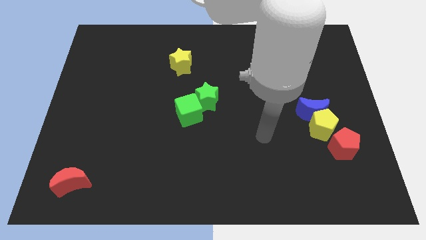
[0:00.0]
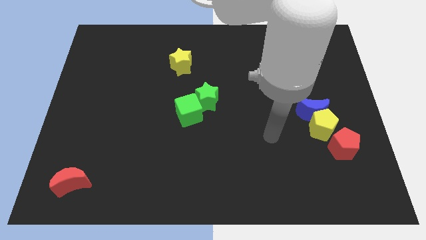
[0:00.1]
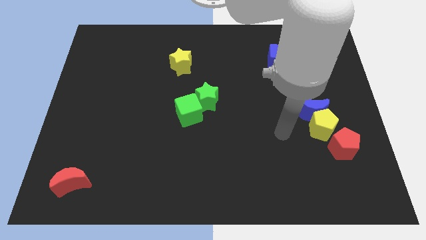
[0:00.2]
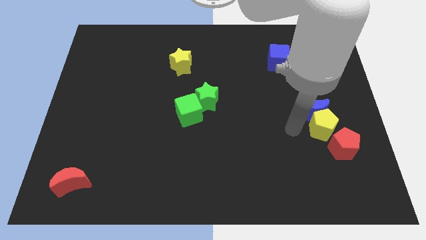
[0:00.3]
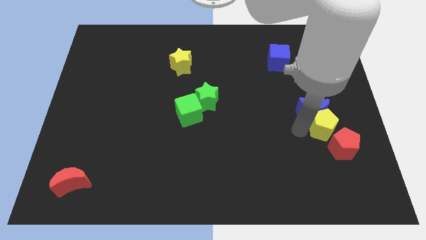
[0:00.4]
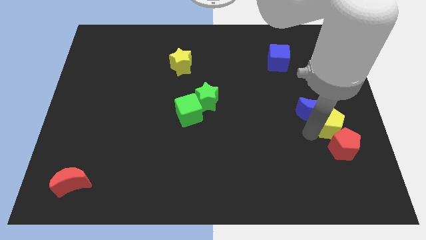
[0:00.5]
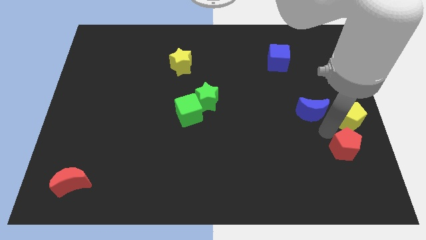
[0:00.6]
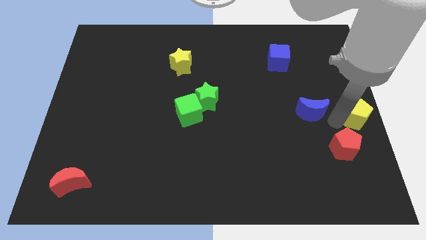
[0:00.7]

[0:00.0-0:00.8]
separate the blue moon from the yellow pentagon

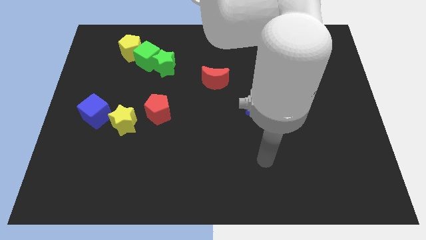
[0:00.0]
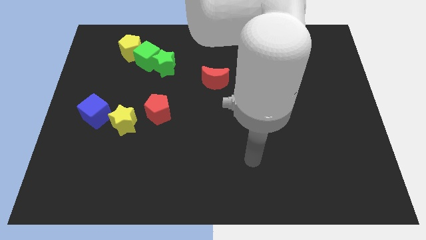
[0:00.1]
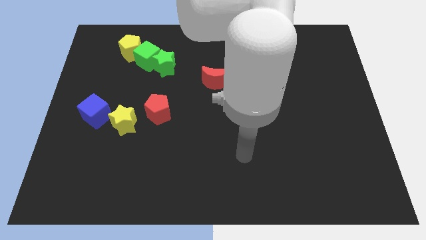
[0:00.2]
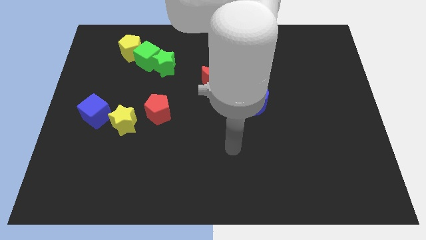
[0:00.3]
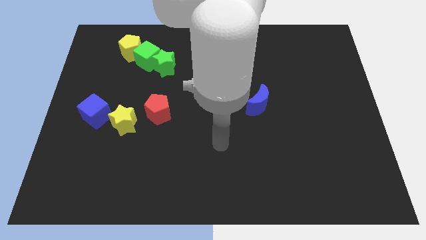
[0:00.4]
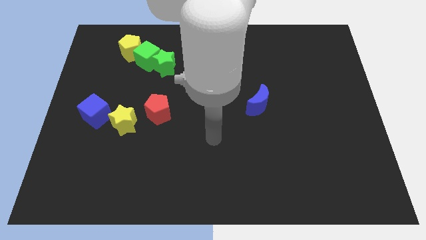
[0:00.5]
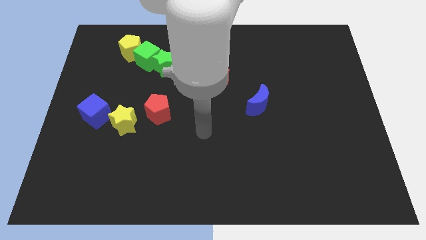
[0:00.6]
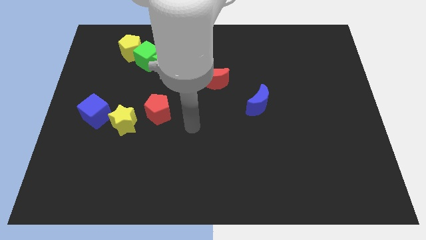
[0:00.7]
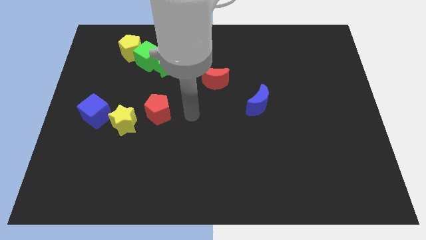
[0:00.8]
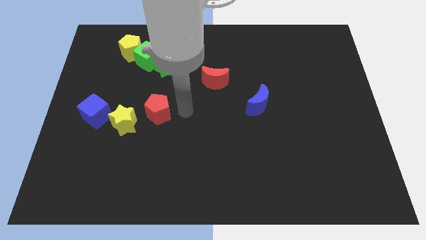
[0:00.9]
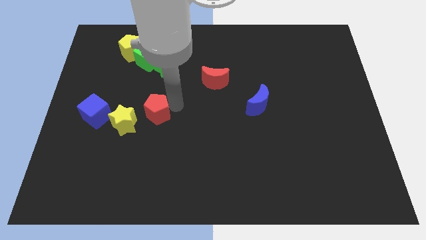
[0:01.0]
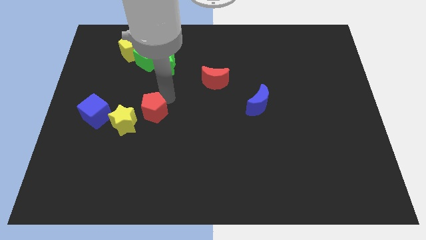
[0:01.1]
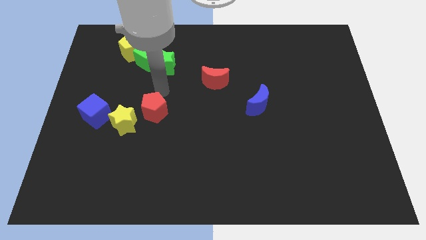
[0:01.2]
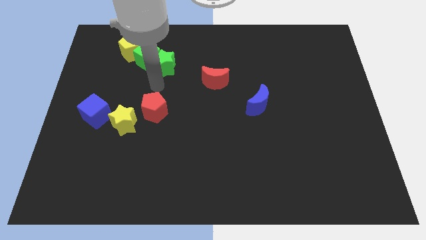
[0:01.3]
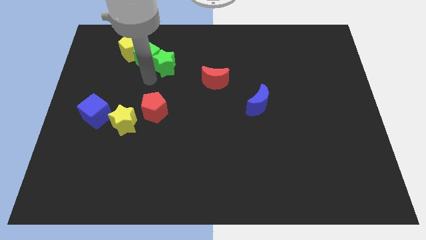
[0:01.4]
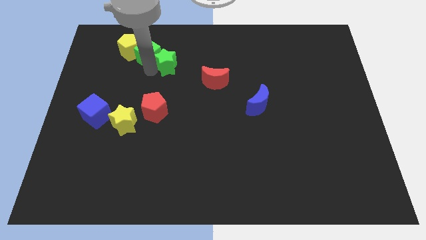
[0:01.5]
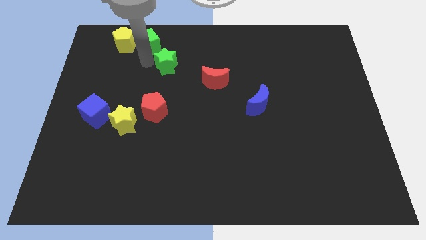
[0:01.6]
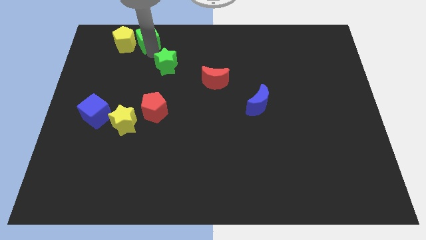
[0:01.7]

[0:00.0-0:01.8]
pull the green star apart from the green cube

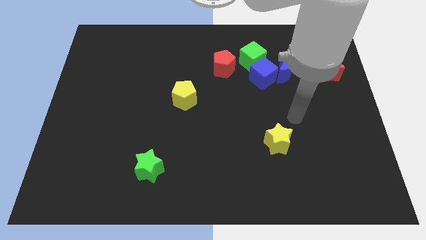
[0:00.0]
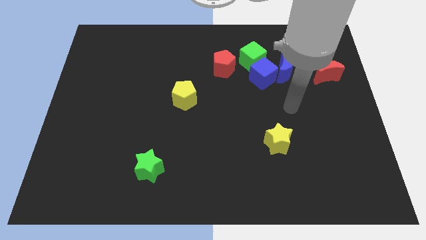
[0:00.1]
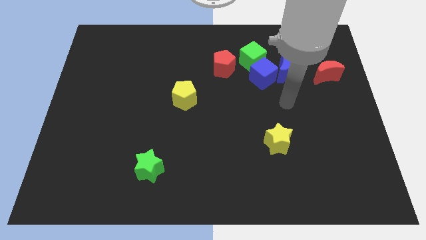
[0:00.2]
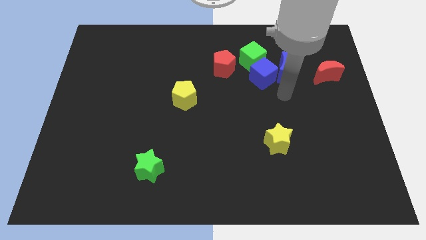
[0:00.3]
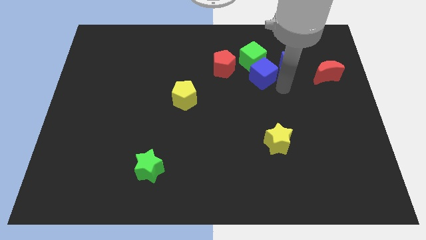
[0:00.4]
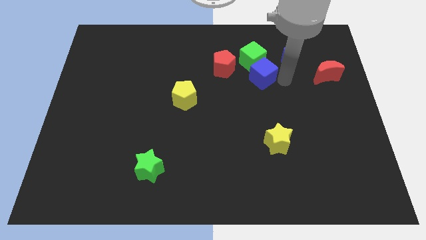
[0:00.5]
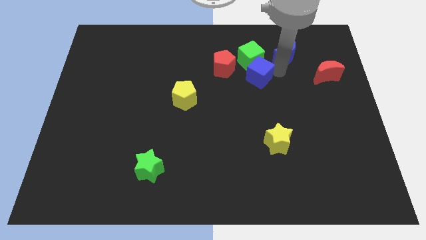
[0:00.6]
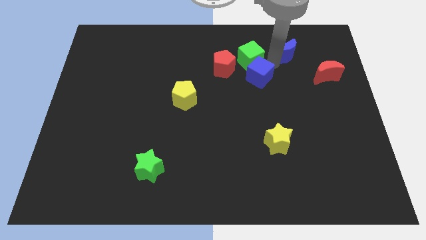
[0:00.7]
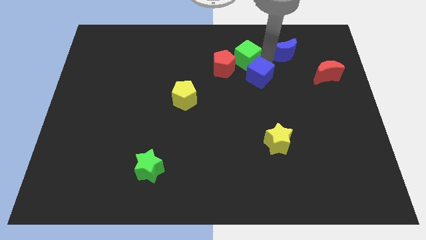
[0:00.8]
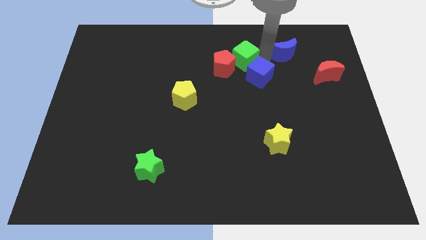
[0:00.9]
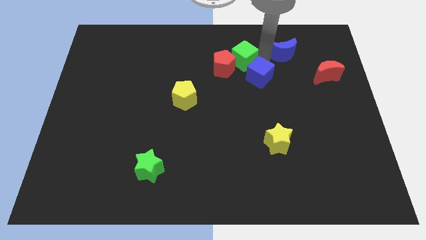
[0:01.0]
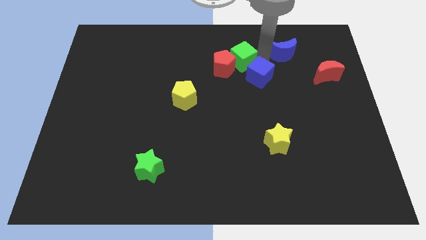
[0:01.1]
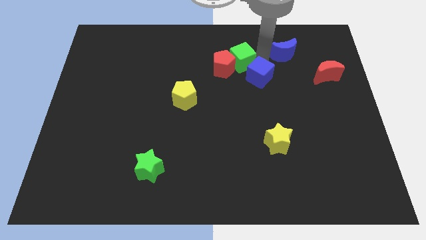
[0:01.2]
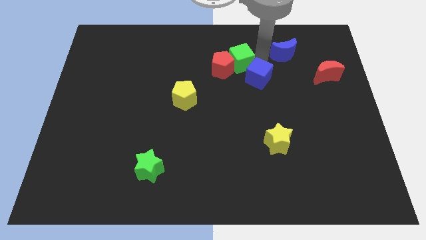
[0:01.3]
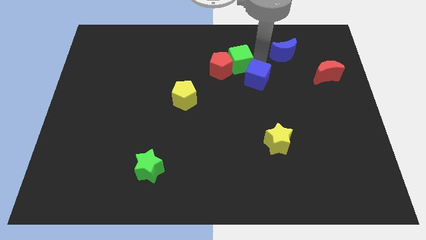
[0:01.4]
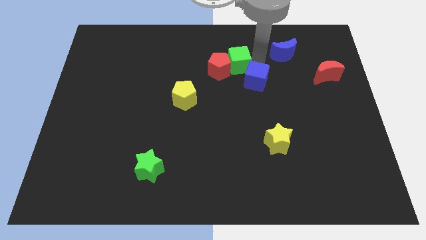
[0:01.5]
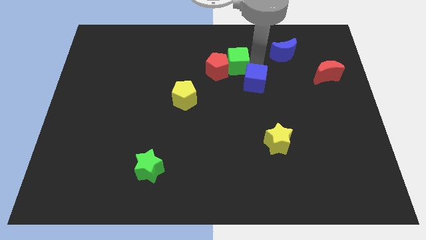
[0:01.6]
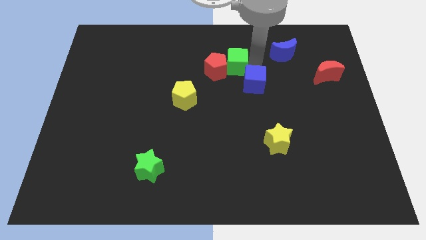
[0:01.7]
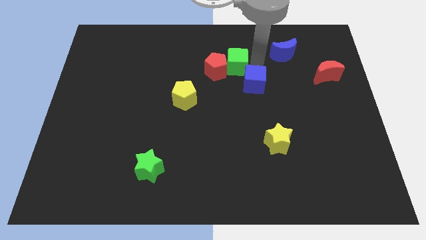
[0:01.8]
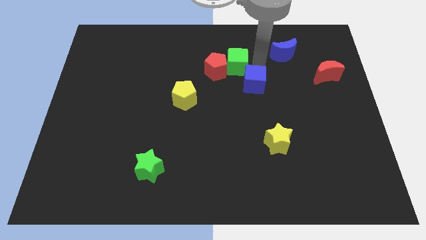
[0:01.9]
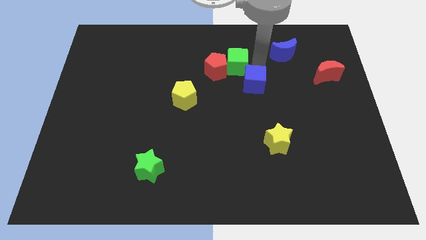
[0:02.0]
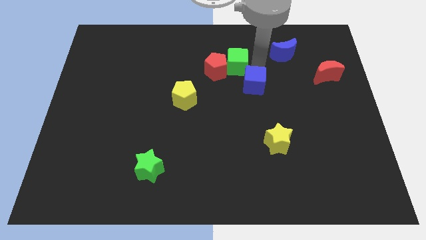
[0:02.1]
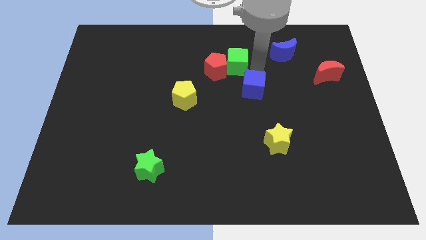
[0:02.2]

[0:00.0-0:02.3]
move the blue cube away from the blue moon and green cube

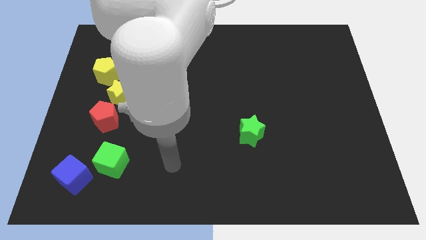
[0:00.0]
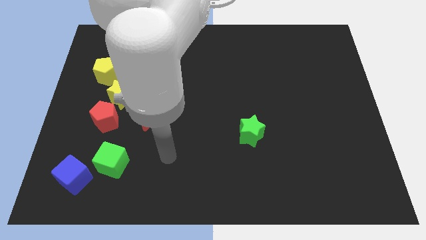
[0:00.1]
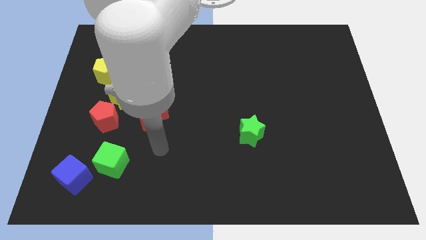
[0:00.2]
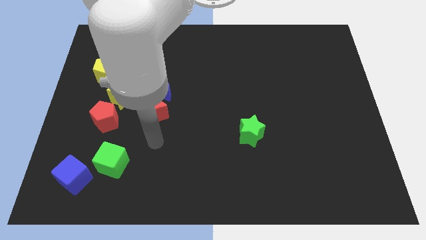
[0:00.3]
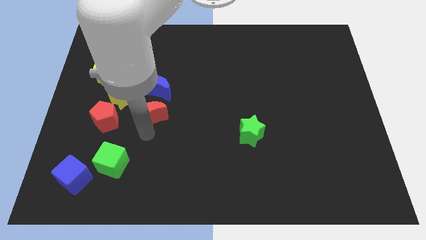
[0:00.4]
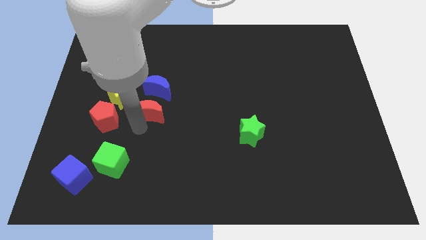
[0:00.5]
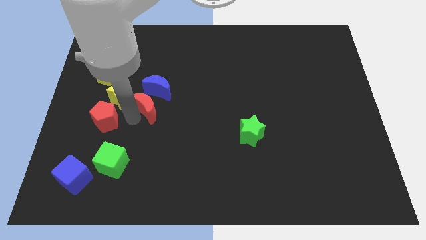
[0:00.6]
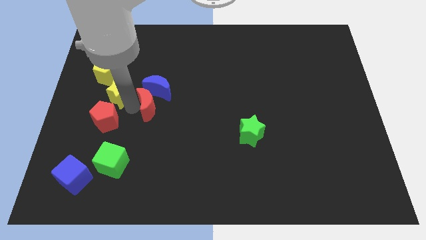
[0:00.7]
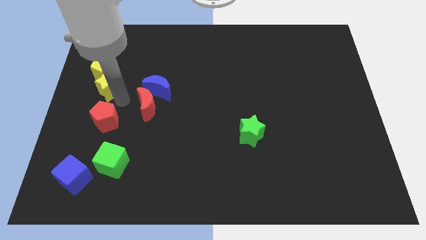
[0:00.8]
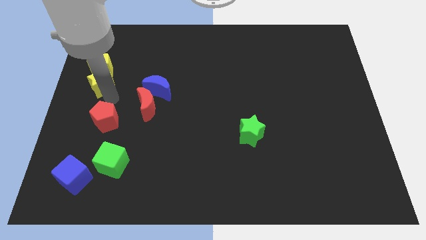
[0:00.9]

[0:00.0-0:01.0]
pull the red pentagon apart from the yellow star

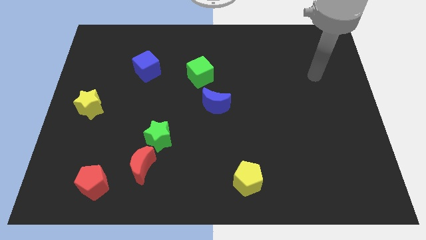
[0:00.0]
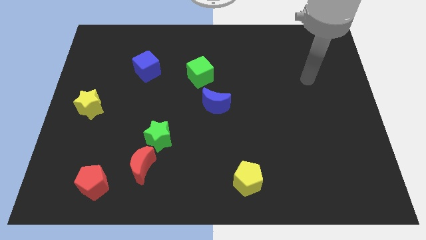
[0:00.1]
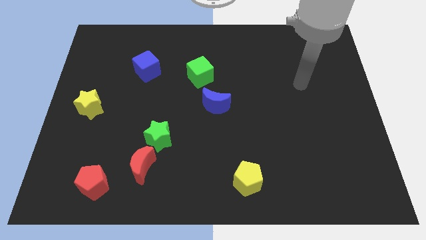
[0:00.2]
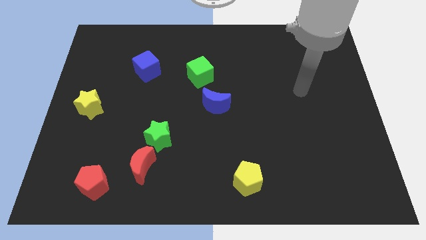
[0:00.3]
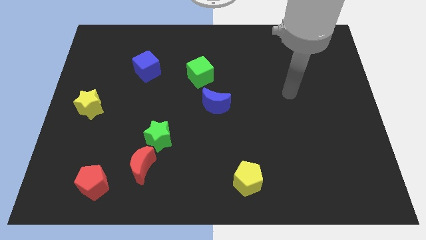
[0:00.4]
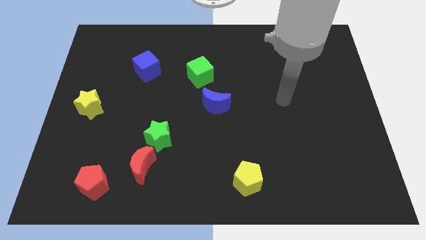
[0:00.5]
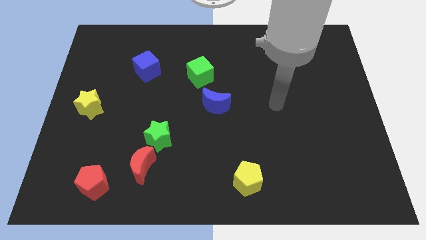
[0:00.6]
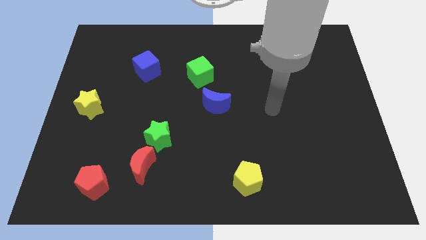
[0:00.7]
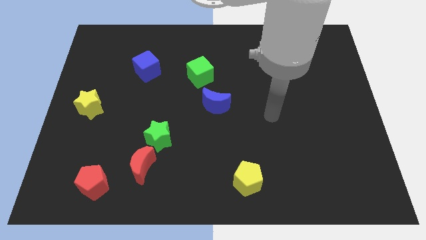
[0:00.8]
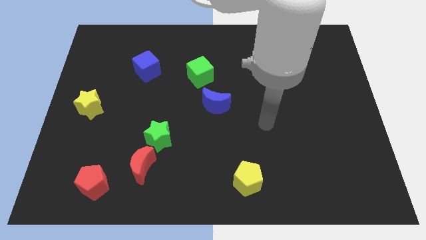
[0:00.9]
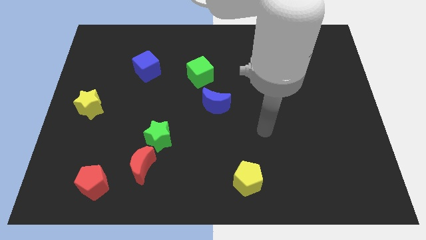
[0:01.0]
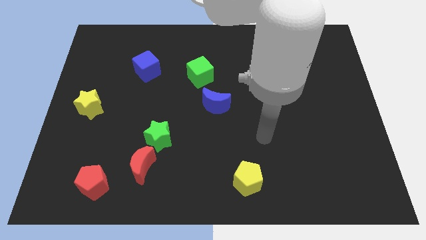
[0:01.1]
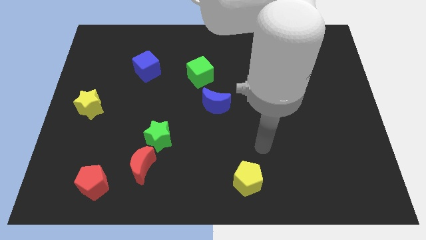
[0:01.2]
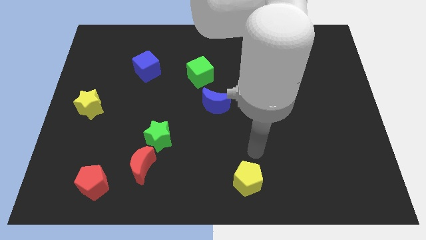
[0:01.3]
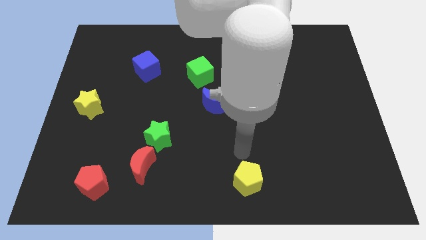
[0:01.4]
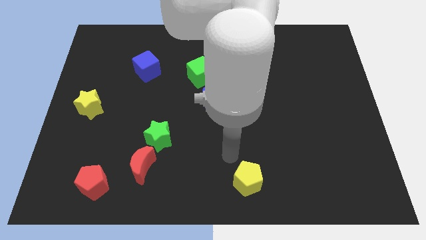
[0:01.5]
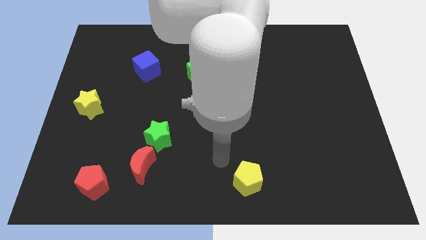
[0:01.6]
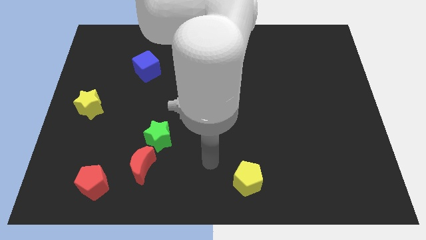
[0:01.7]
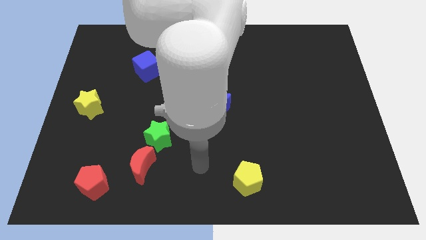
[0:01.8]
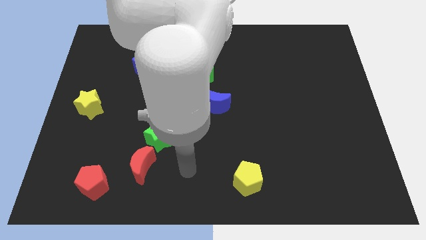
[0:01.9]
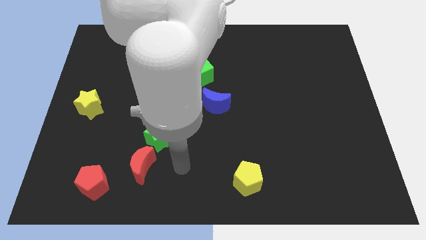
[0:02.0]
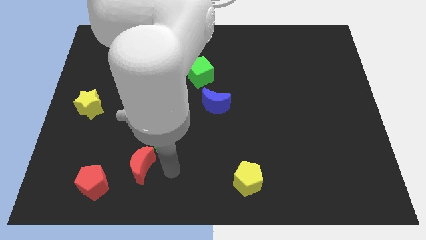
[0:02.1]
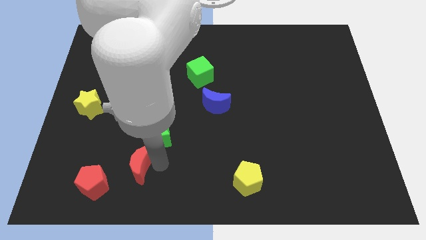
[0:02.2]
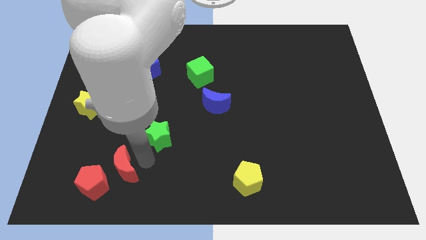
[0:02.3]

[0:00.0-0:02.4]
pull the green star apart from the red moon

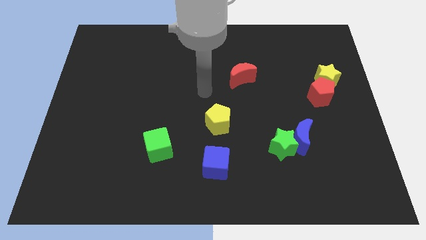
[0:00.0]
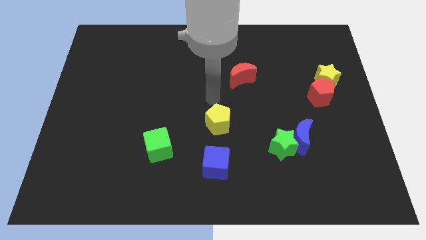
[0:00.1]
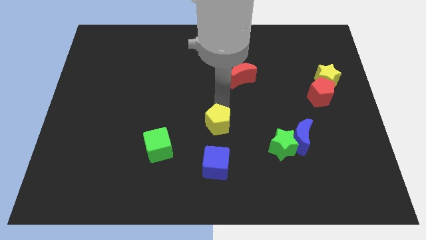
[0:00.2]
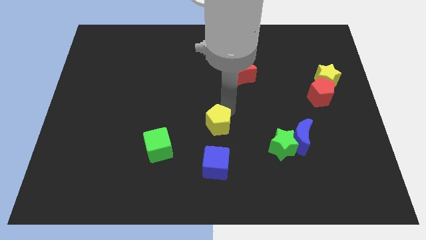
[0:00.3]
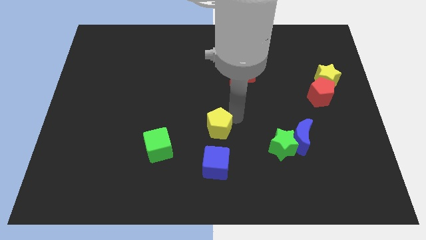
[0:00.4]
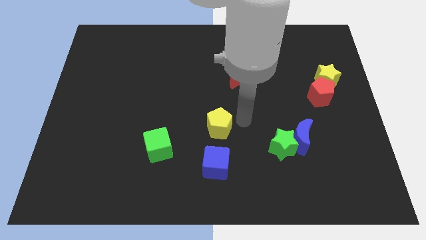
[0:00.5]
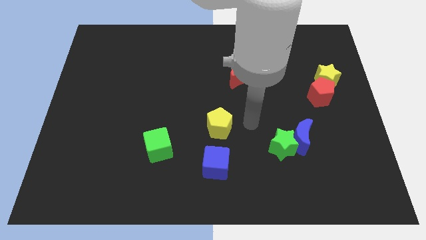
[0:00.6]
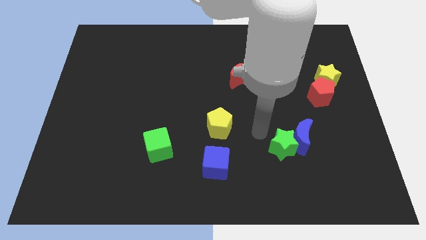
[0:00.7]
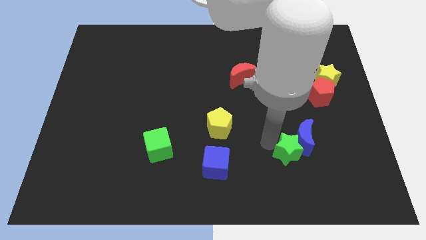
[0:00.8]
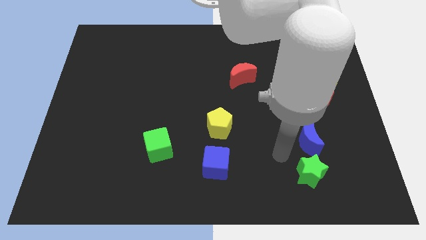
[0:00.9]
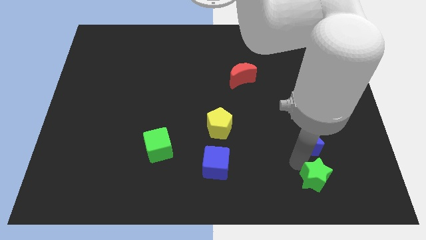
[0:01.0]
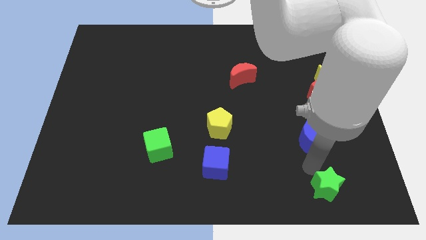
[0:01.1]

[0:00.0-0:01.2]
pull the blue moon apart from the green star
